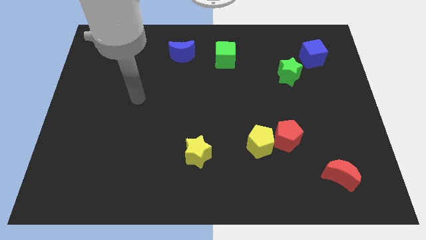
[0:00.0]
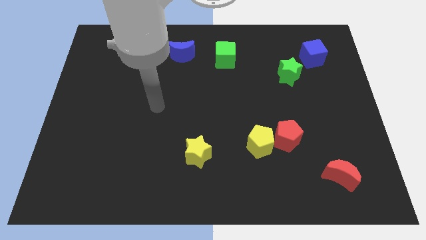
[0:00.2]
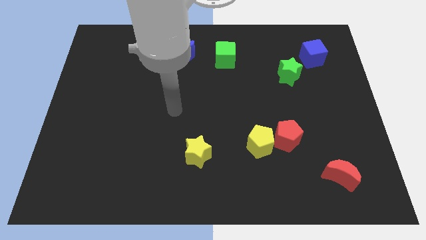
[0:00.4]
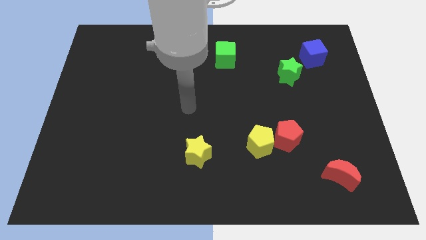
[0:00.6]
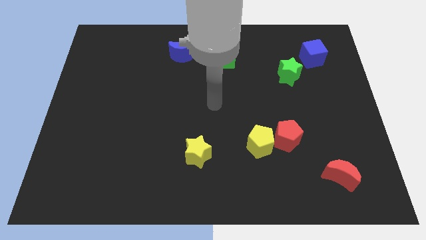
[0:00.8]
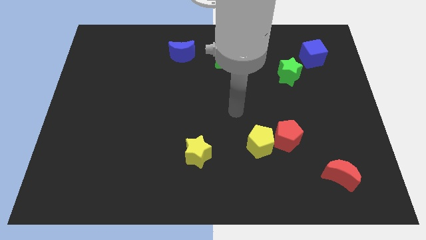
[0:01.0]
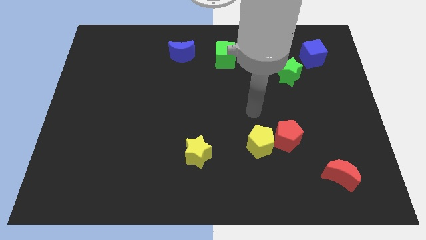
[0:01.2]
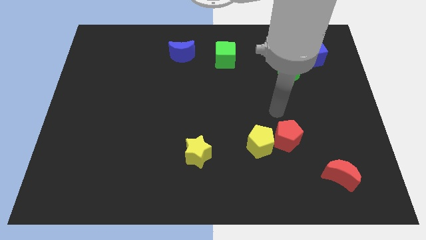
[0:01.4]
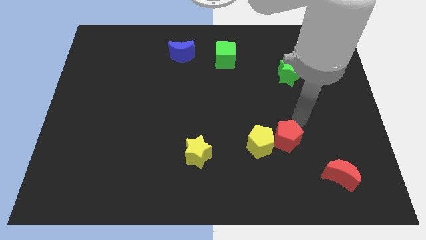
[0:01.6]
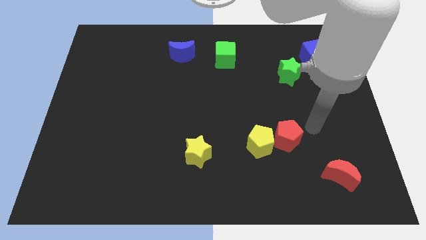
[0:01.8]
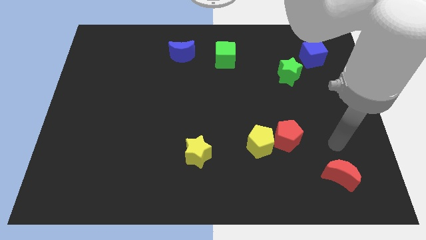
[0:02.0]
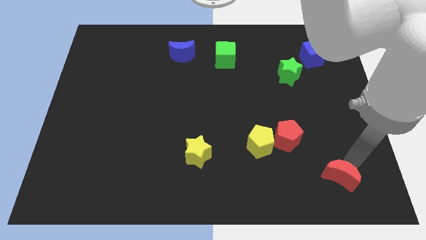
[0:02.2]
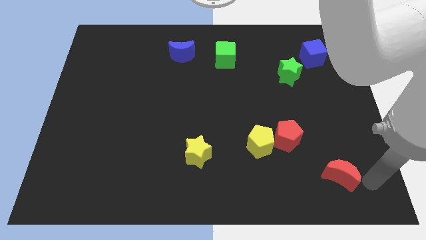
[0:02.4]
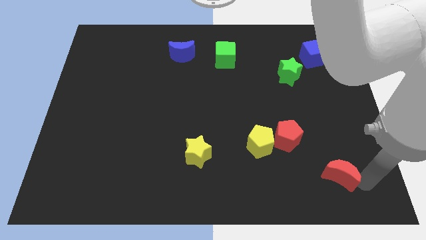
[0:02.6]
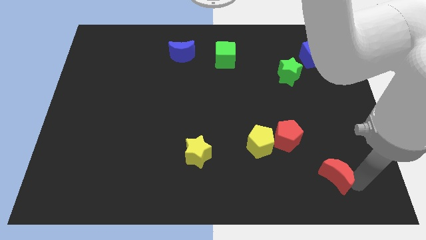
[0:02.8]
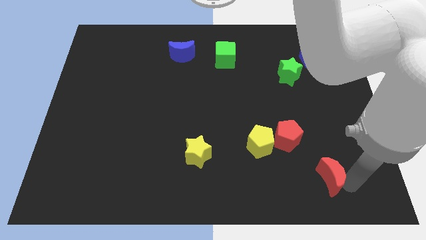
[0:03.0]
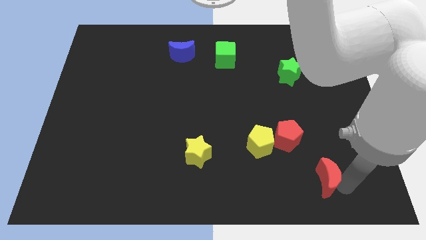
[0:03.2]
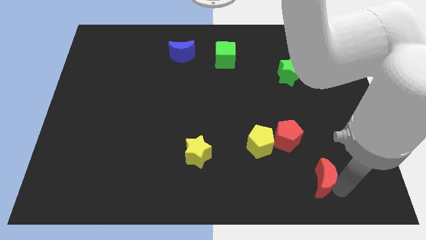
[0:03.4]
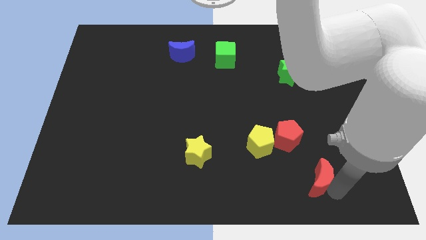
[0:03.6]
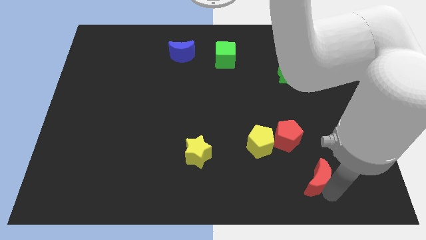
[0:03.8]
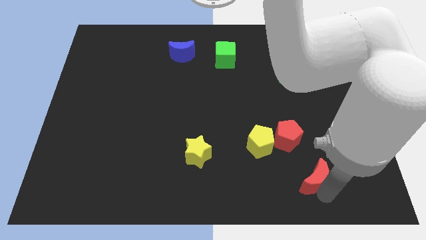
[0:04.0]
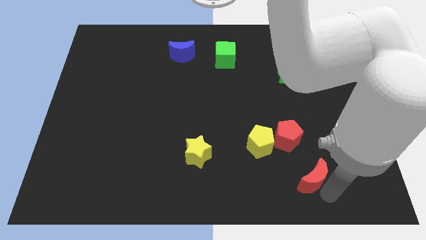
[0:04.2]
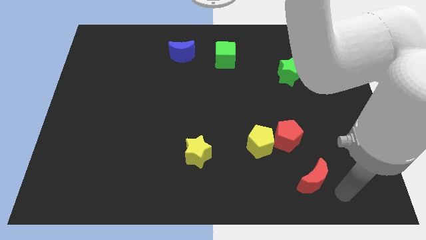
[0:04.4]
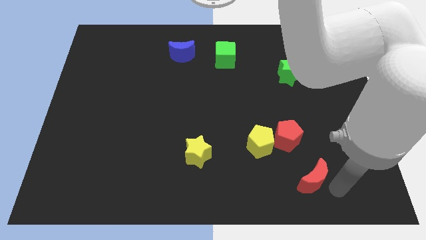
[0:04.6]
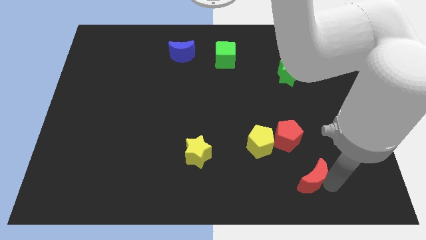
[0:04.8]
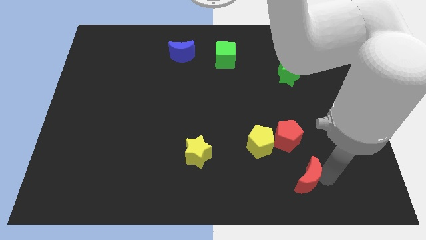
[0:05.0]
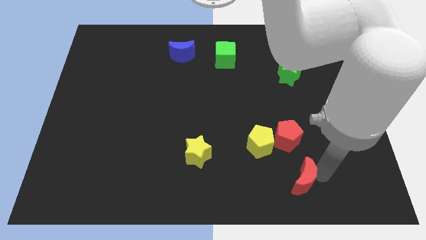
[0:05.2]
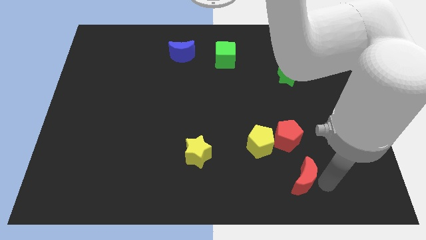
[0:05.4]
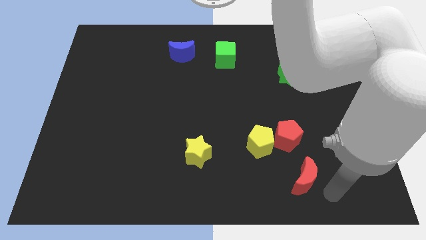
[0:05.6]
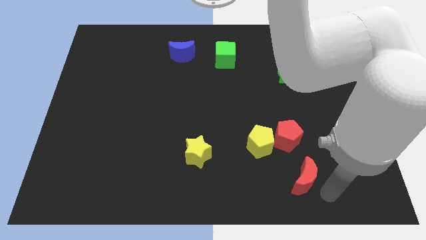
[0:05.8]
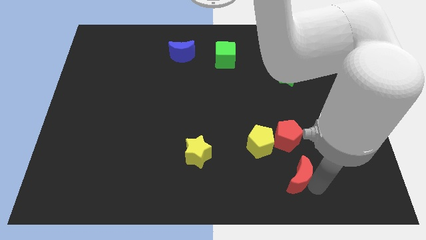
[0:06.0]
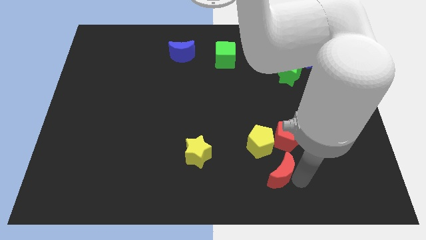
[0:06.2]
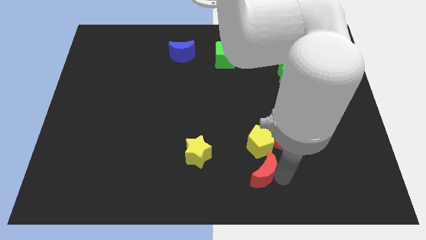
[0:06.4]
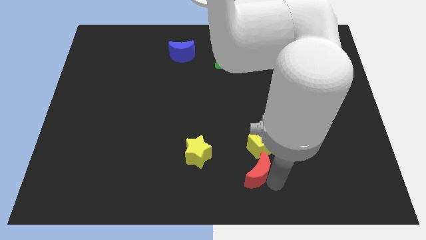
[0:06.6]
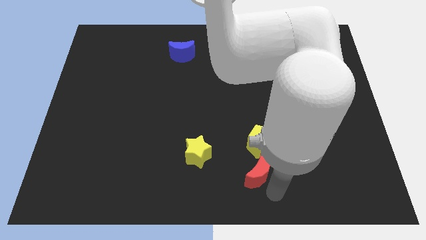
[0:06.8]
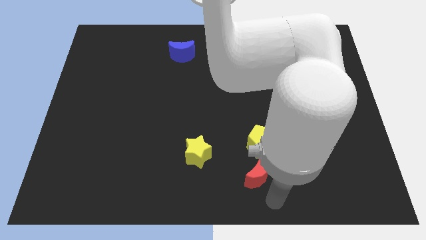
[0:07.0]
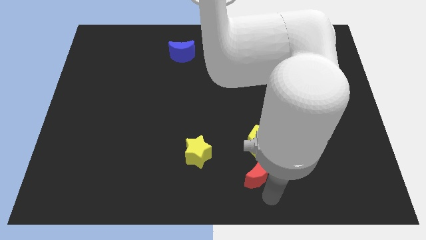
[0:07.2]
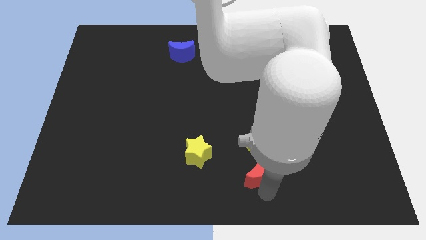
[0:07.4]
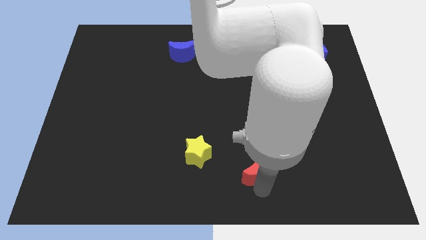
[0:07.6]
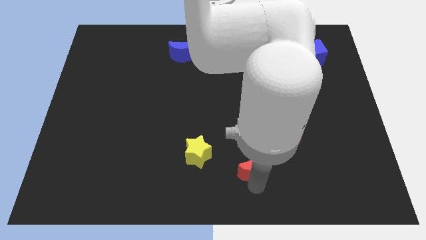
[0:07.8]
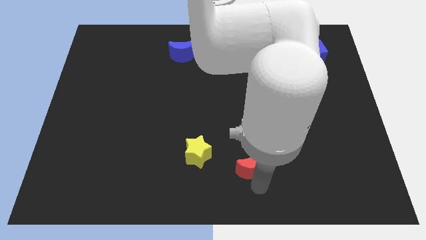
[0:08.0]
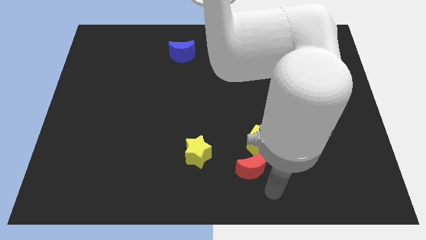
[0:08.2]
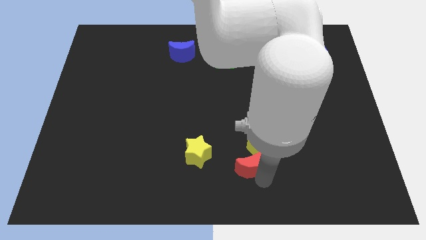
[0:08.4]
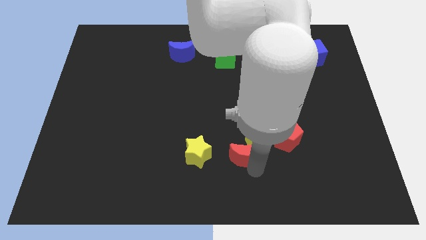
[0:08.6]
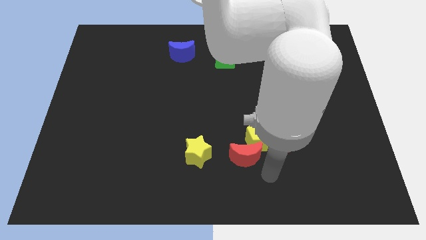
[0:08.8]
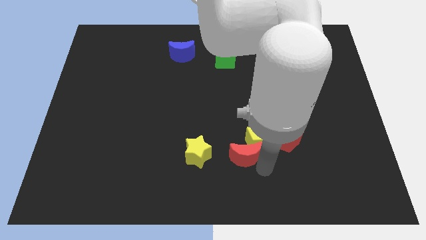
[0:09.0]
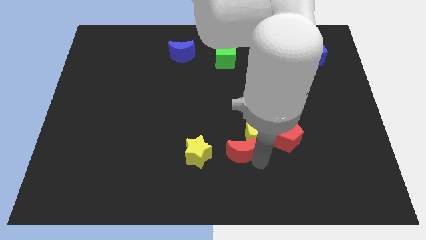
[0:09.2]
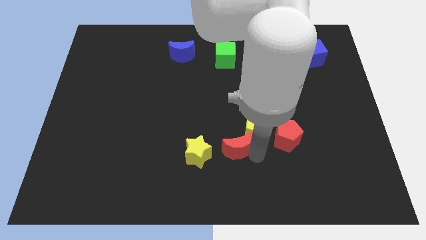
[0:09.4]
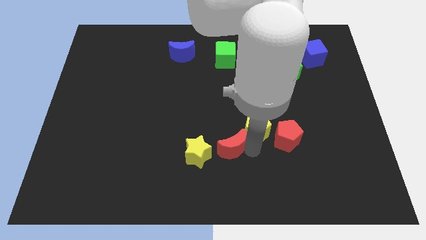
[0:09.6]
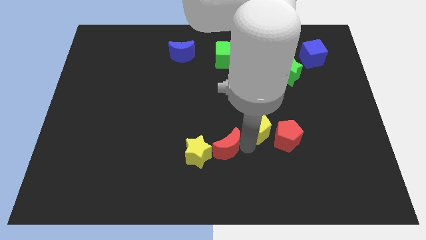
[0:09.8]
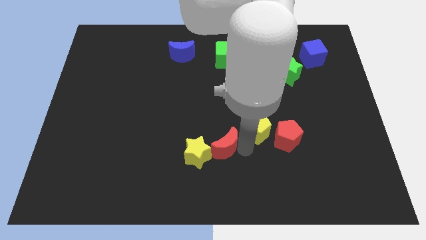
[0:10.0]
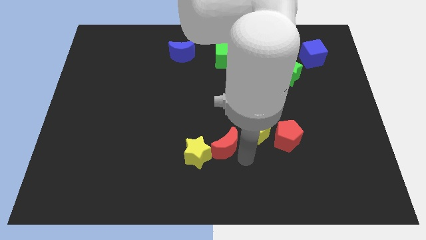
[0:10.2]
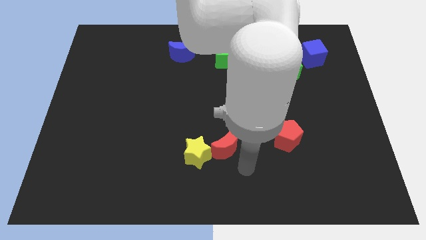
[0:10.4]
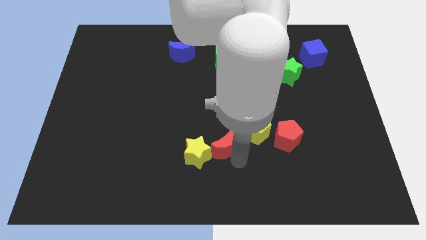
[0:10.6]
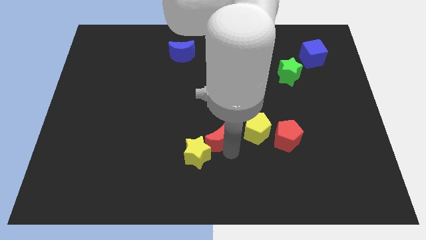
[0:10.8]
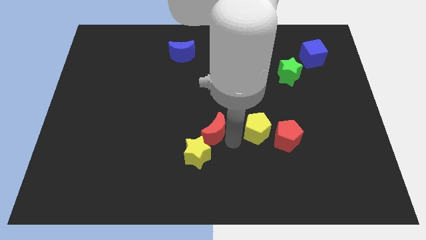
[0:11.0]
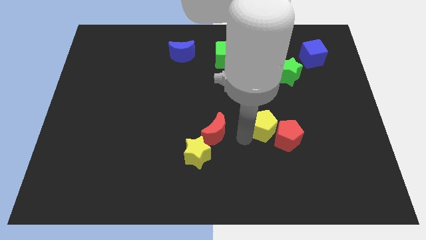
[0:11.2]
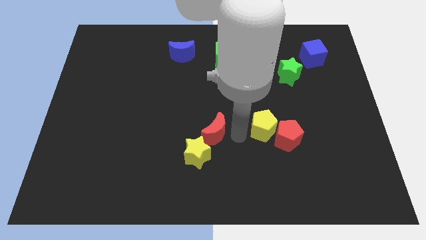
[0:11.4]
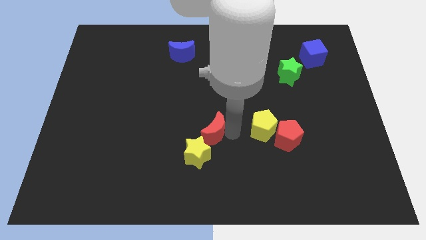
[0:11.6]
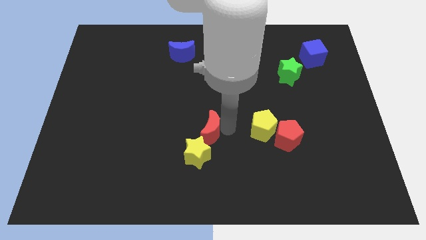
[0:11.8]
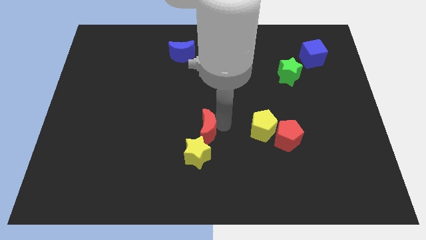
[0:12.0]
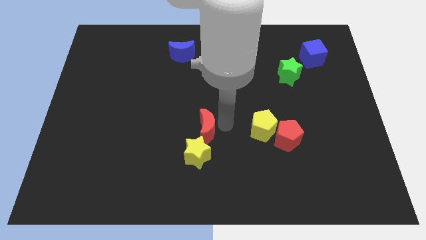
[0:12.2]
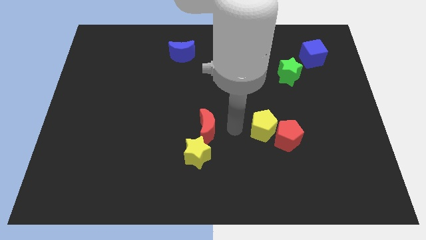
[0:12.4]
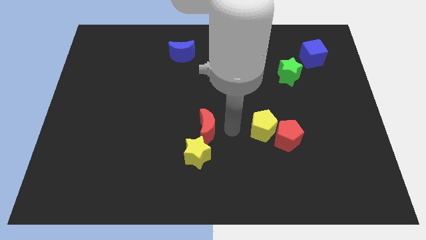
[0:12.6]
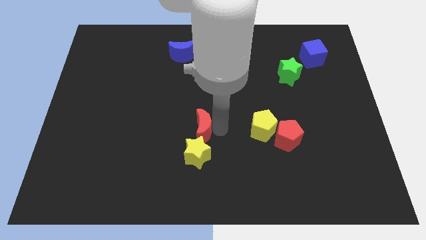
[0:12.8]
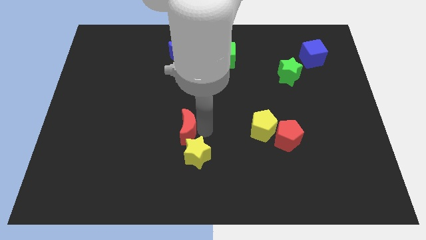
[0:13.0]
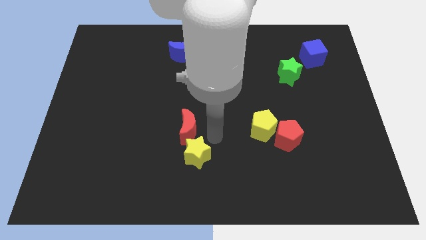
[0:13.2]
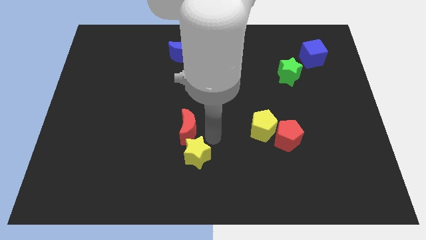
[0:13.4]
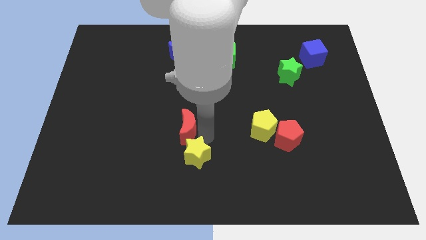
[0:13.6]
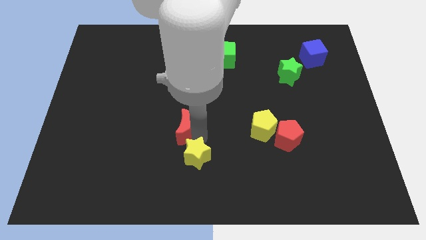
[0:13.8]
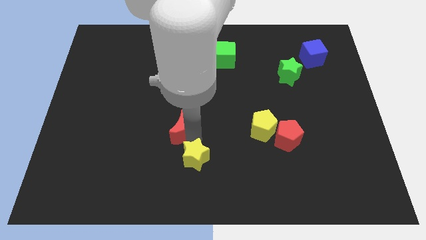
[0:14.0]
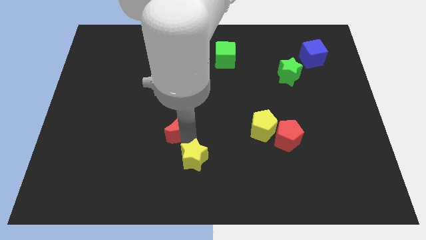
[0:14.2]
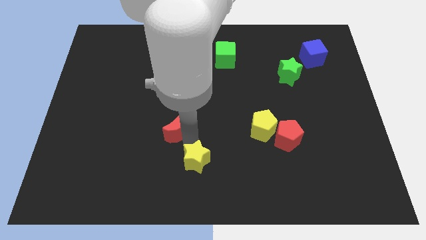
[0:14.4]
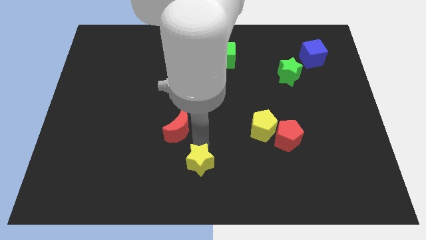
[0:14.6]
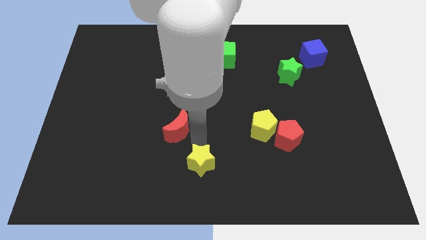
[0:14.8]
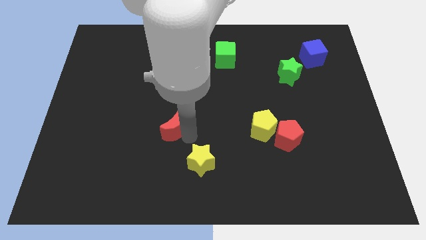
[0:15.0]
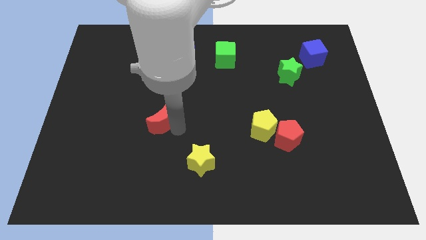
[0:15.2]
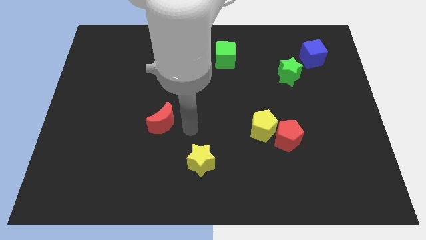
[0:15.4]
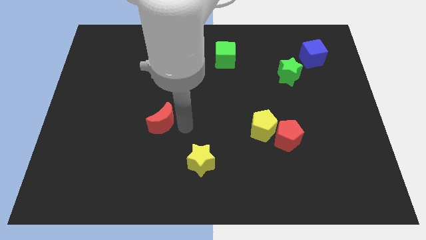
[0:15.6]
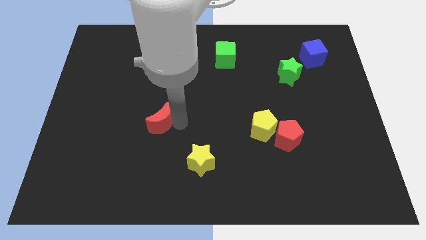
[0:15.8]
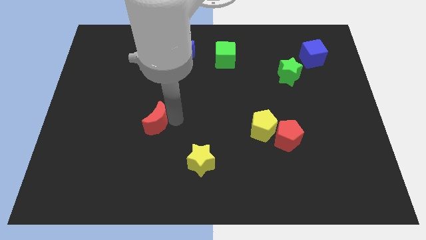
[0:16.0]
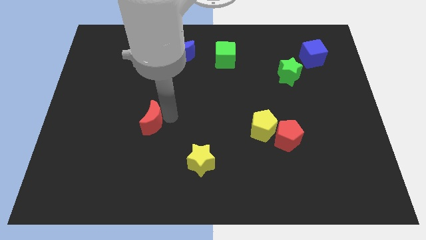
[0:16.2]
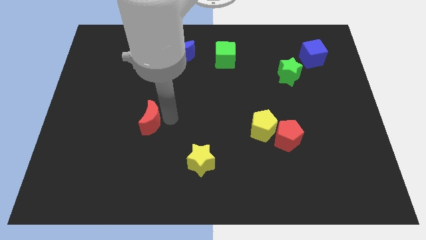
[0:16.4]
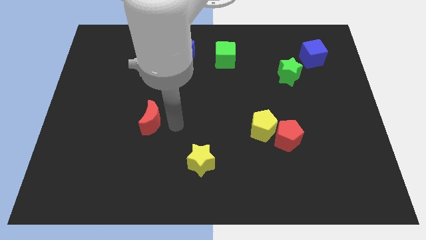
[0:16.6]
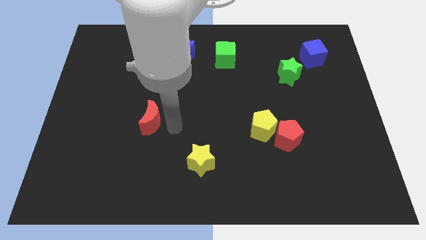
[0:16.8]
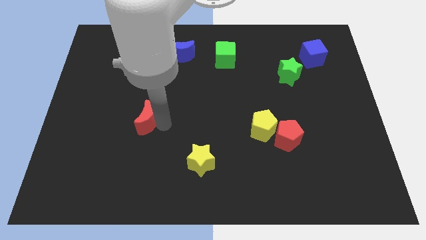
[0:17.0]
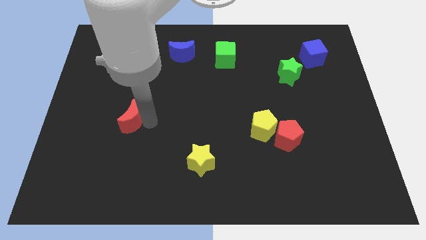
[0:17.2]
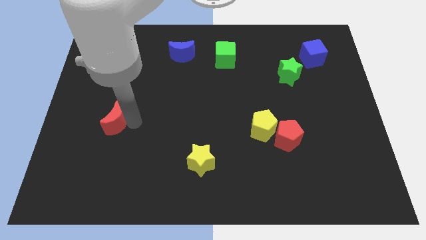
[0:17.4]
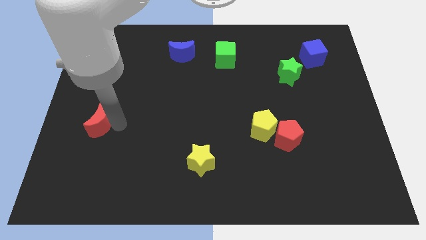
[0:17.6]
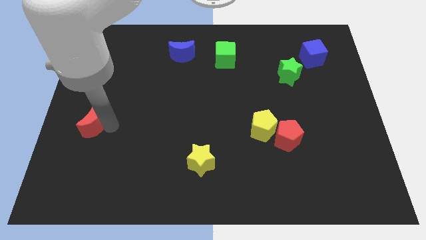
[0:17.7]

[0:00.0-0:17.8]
move the red moon to the left side of the board
